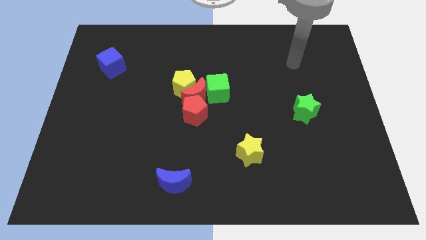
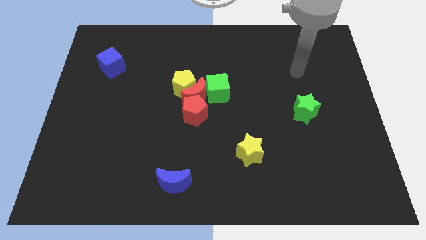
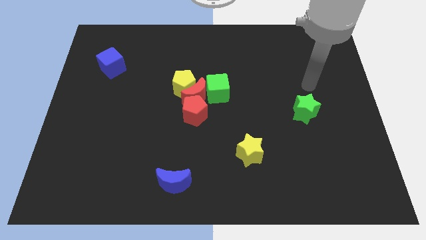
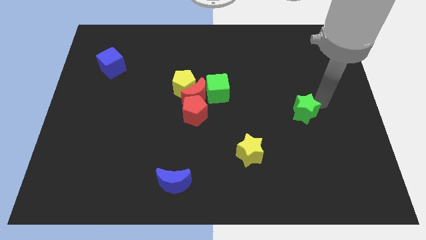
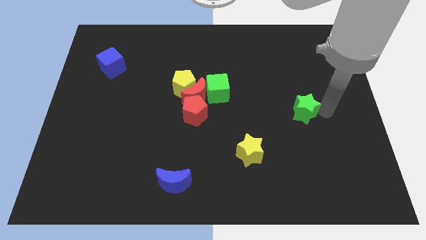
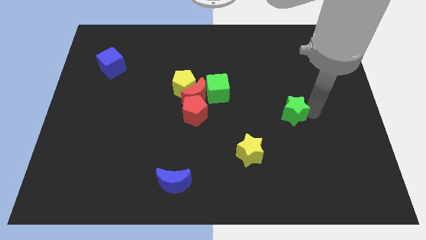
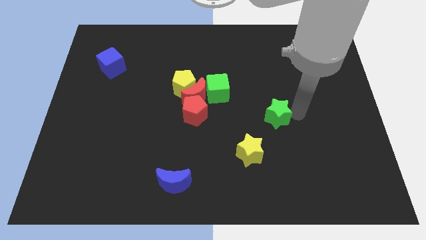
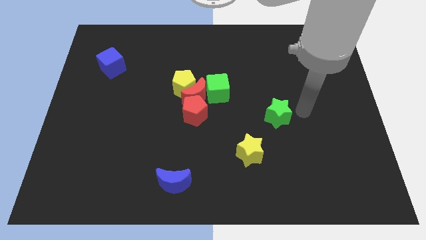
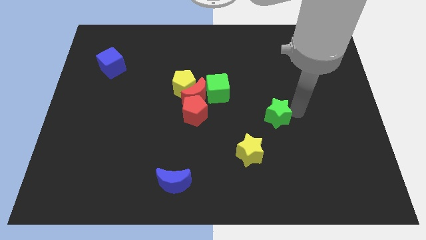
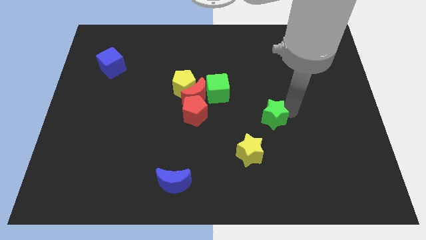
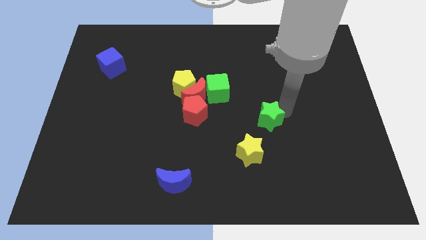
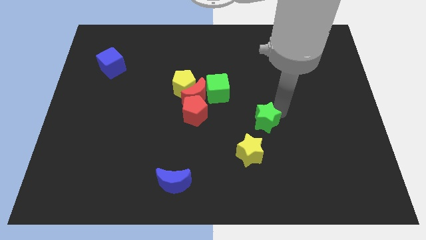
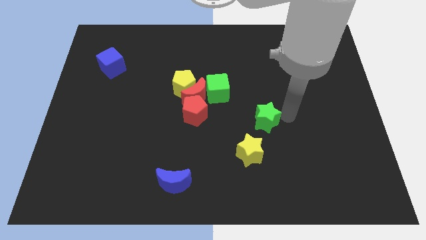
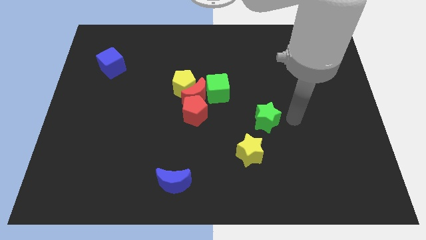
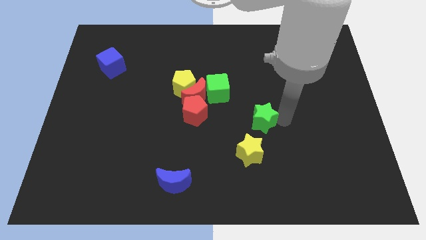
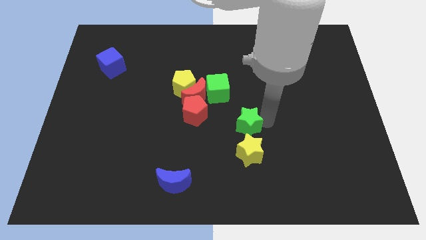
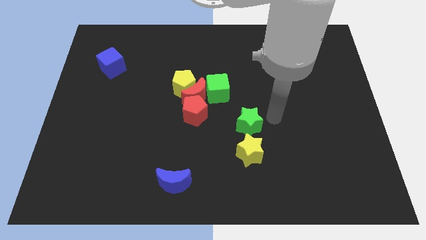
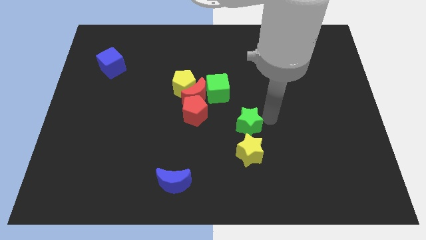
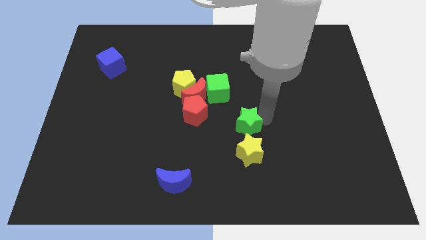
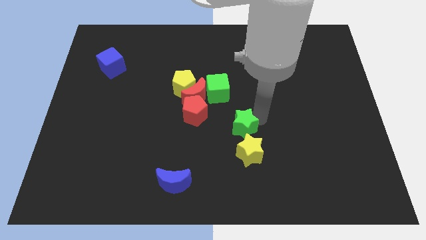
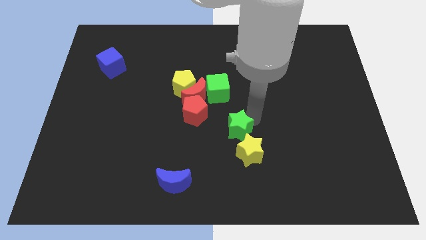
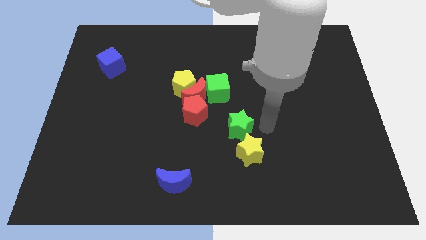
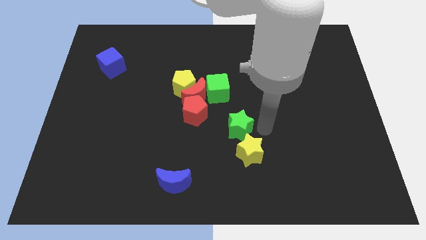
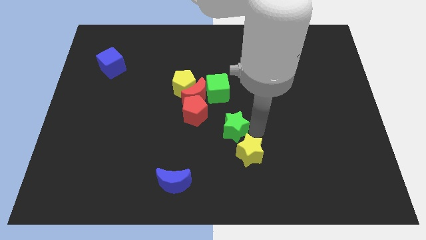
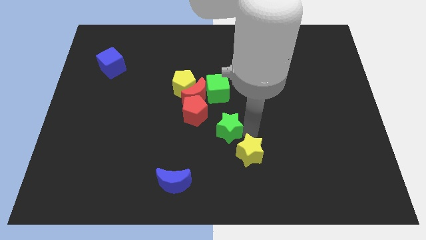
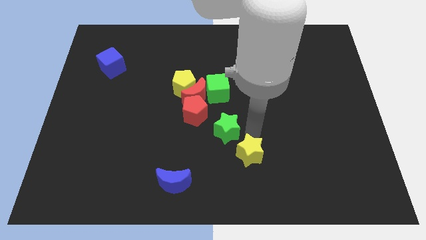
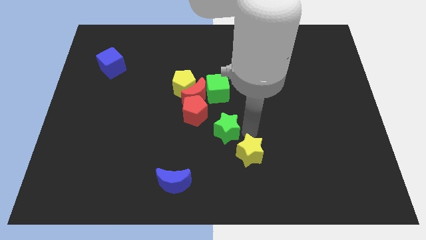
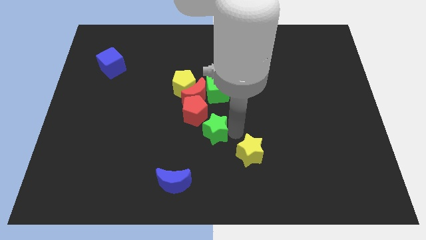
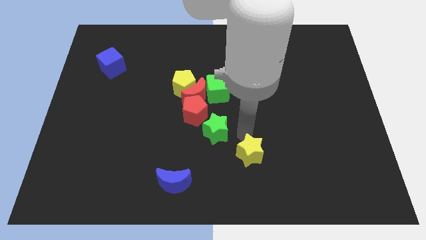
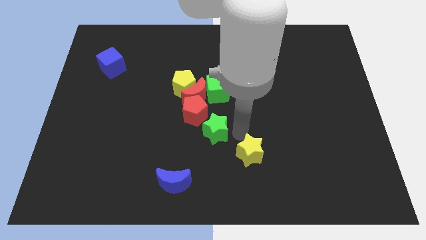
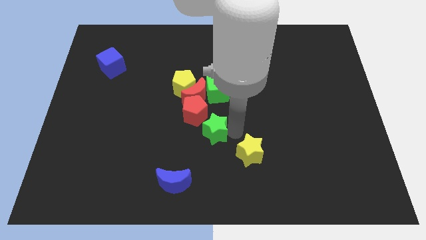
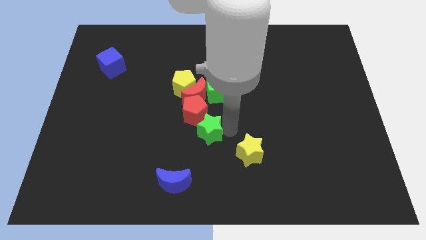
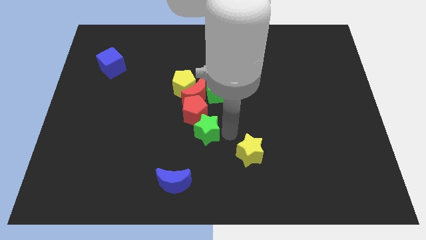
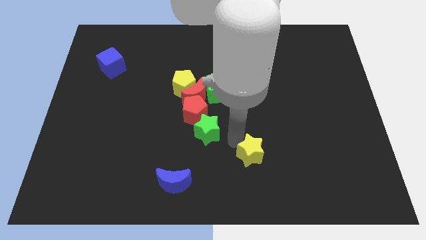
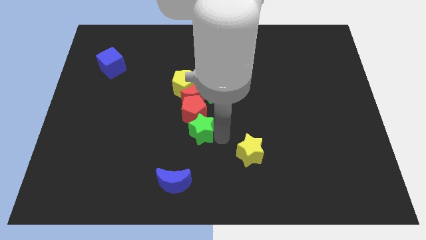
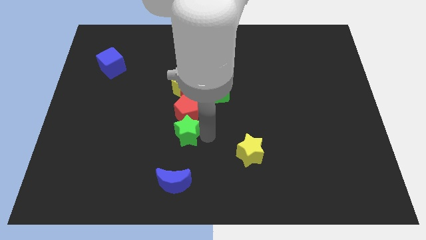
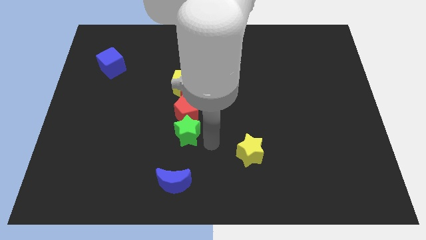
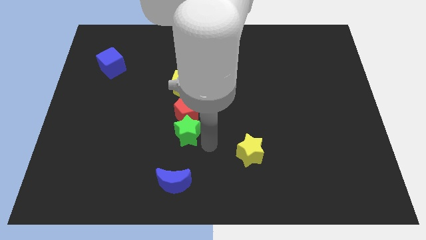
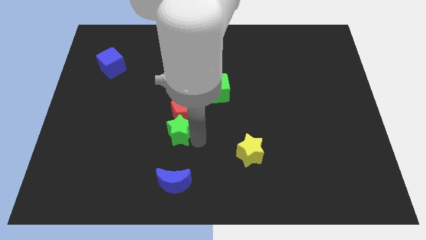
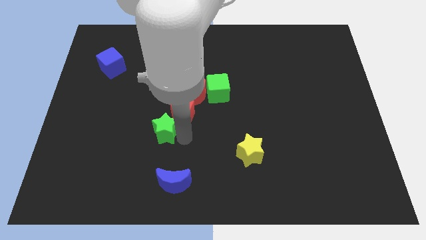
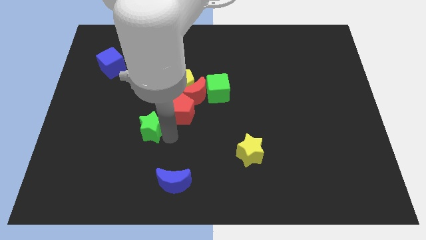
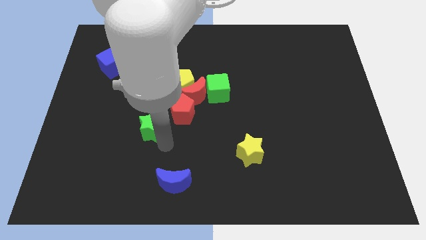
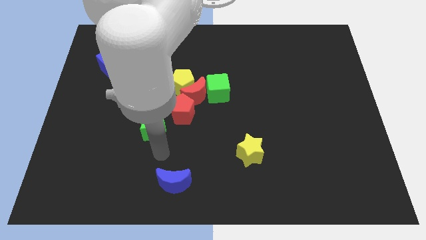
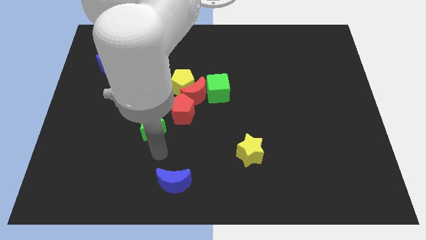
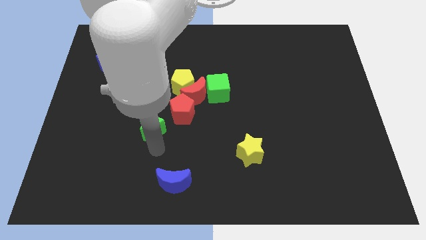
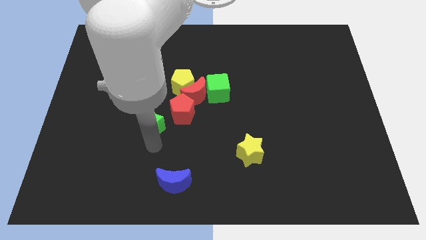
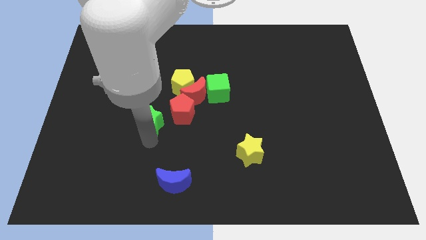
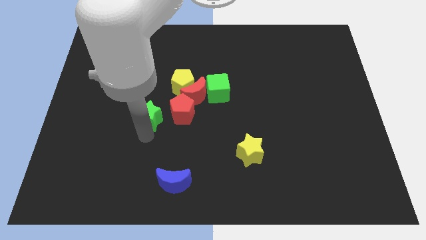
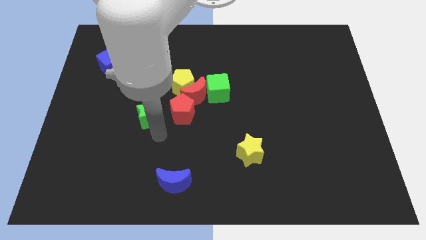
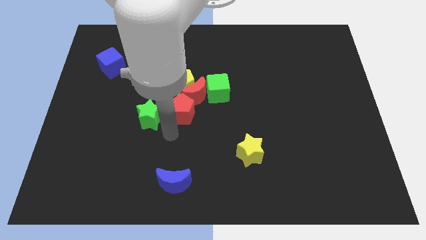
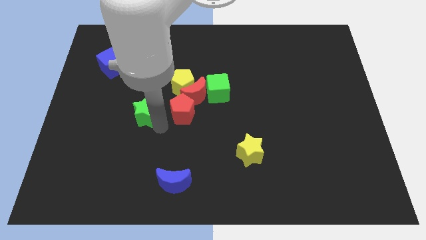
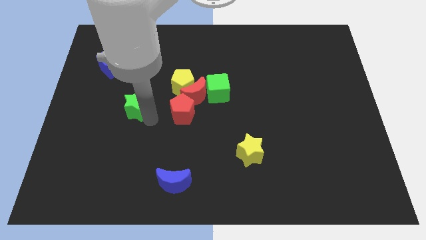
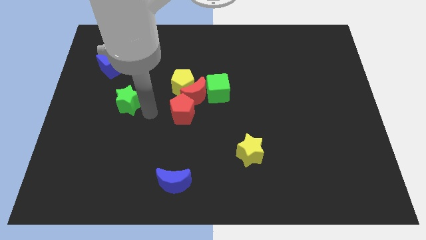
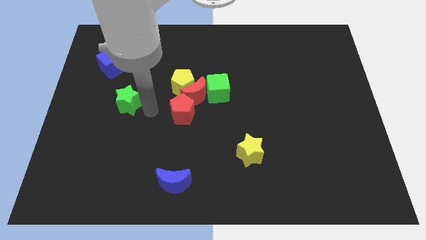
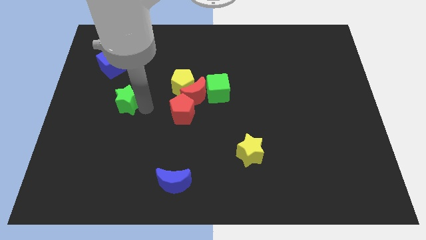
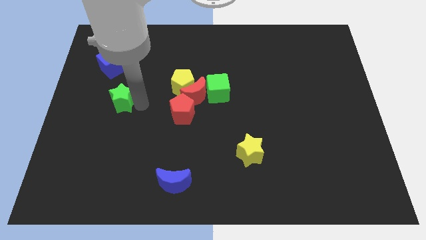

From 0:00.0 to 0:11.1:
slide the green star to the bottom side of the blue cube

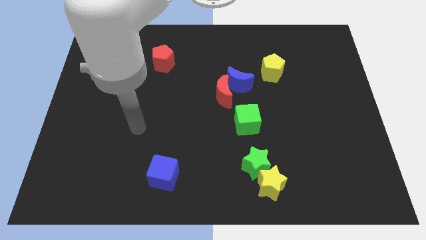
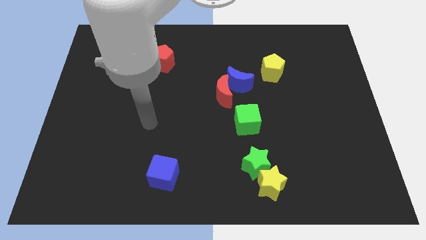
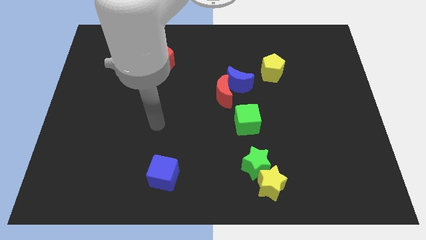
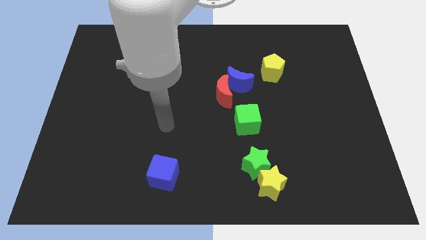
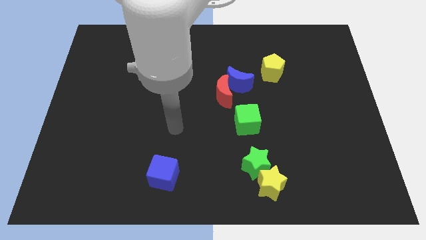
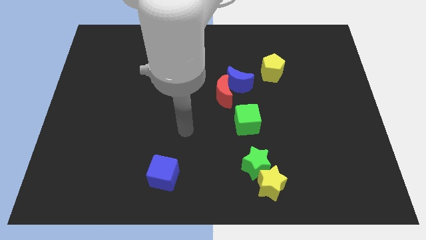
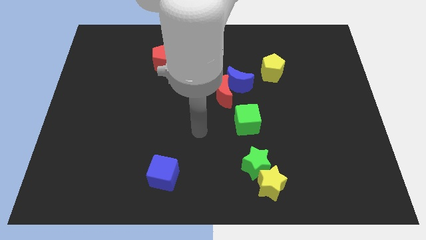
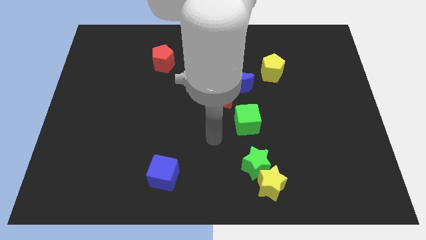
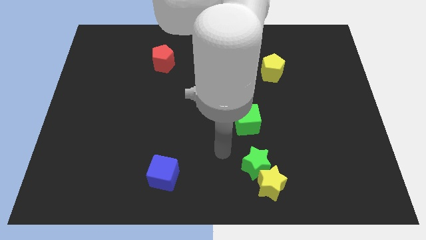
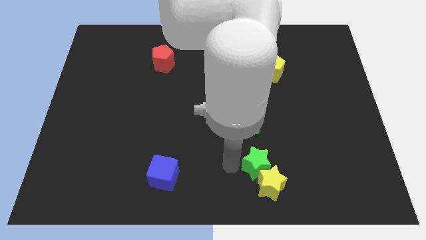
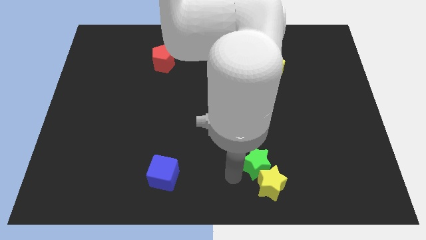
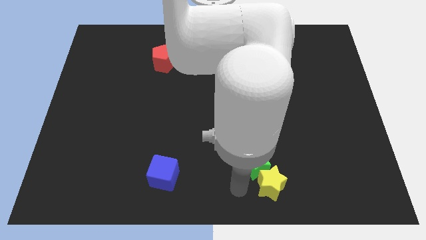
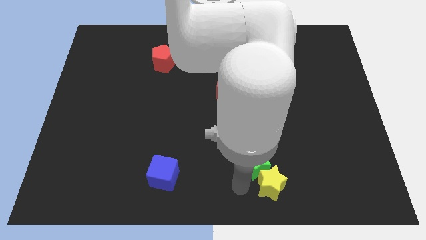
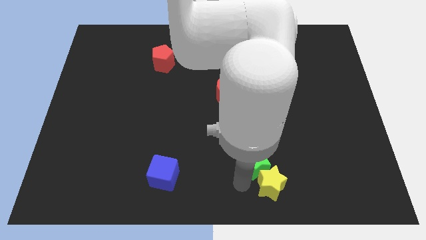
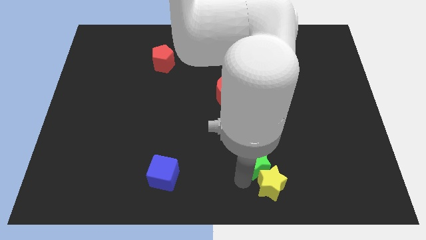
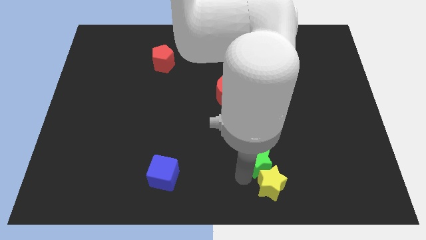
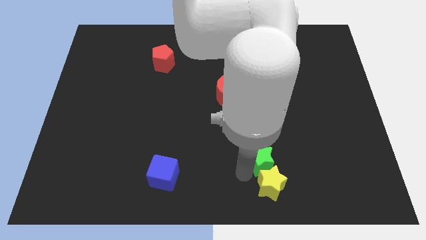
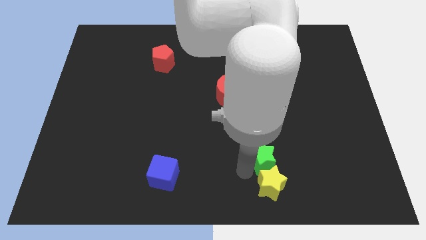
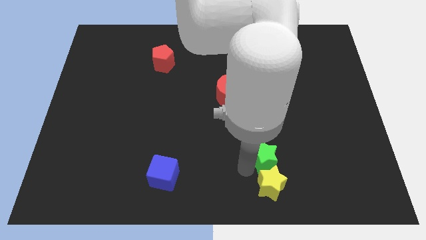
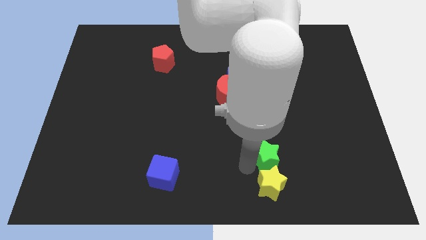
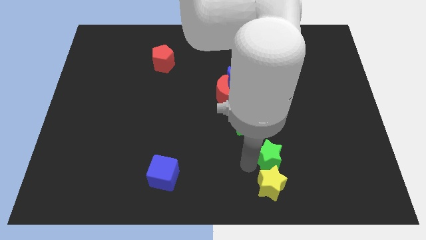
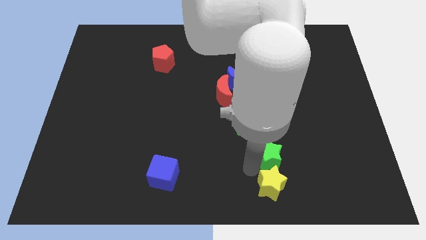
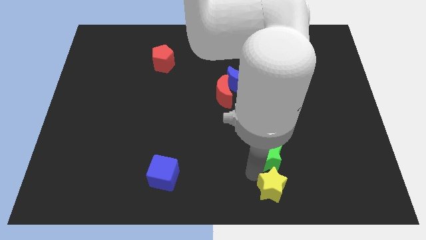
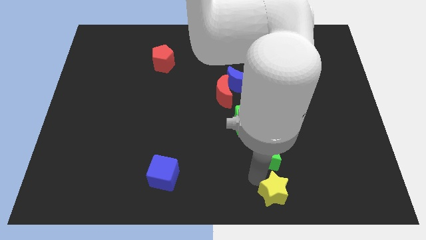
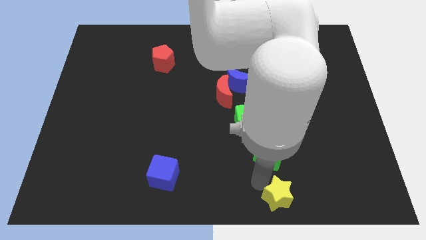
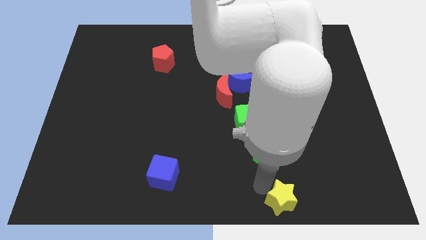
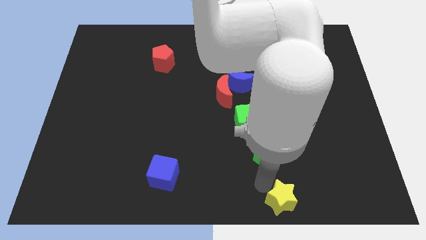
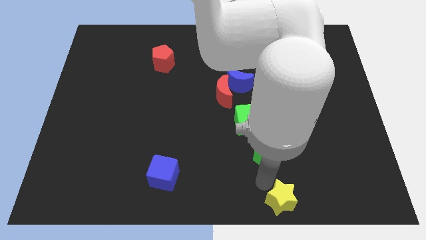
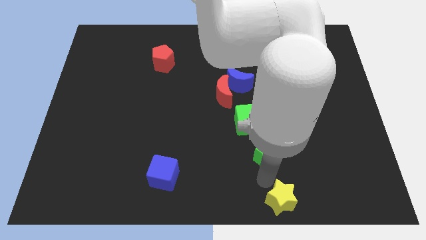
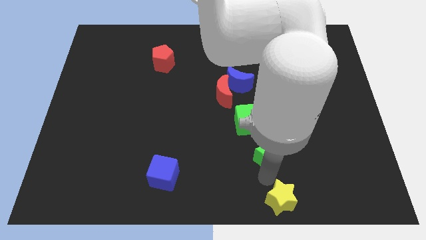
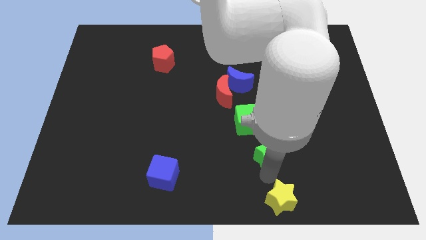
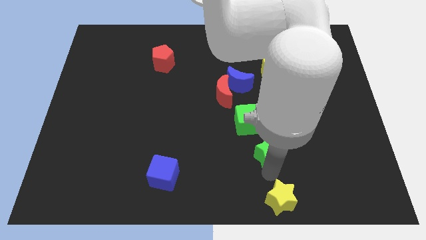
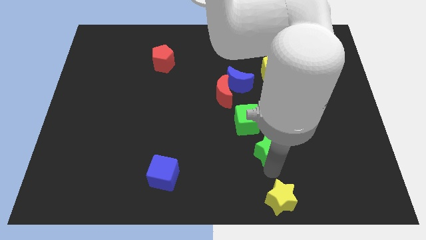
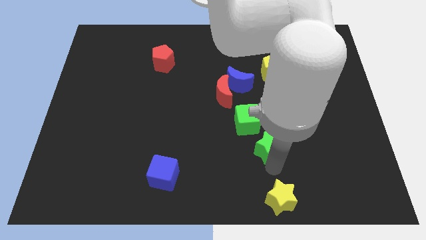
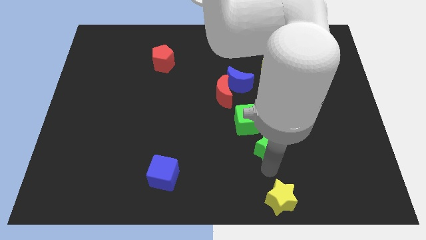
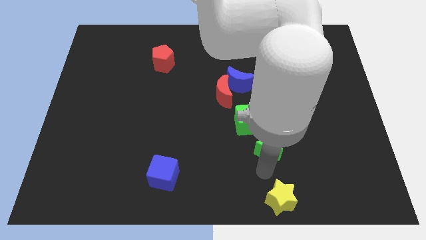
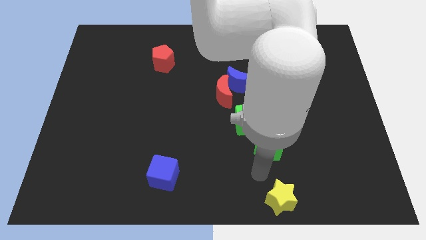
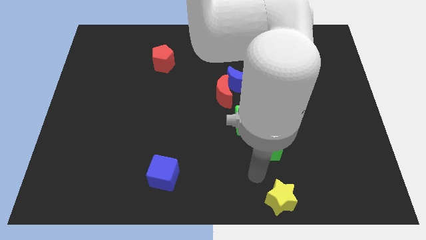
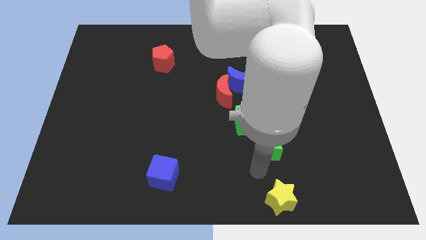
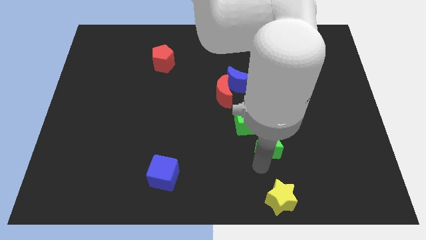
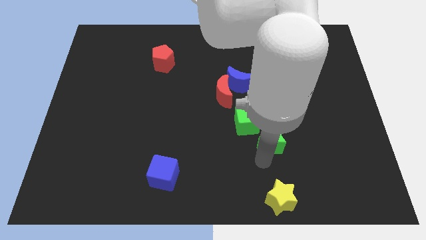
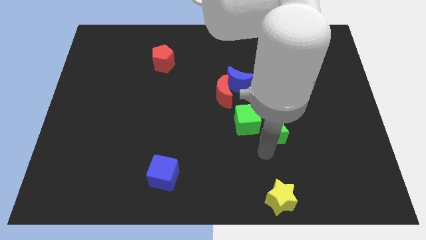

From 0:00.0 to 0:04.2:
move the green star just right of the green cube
